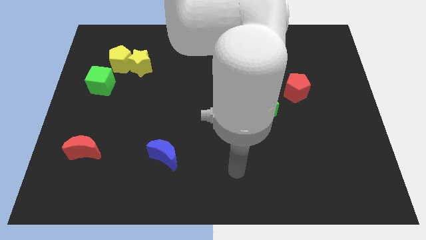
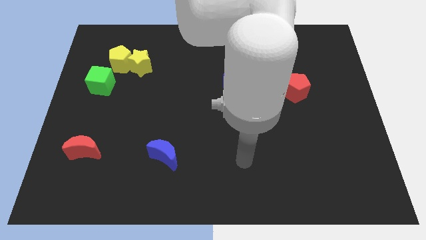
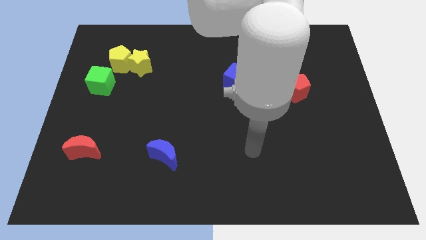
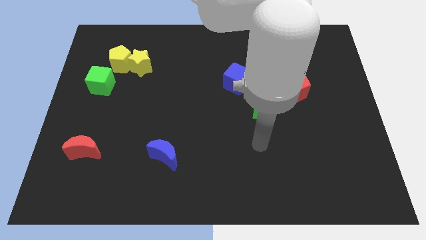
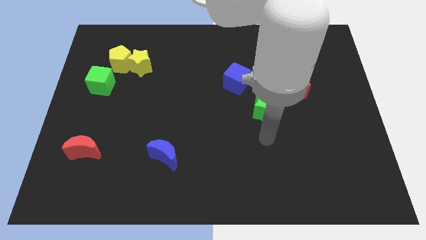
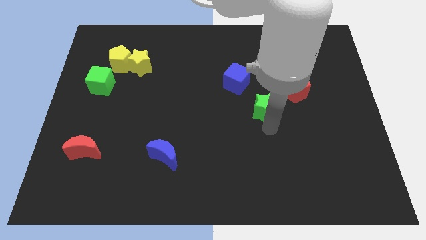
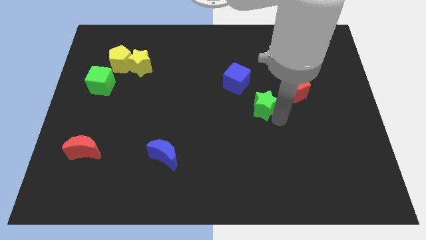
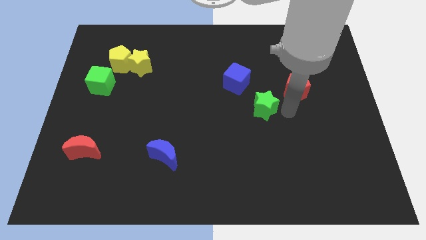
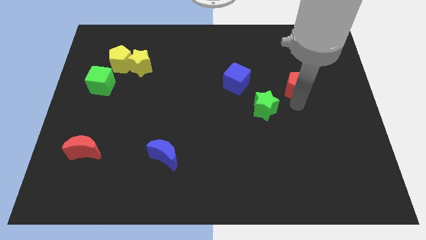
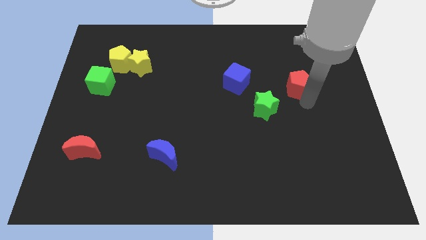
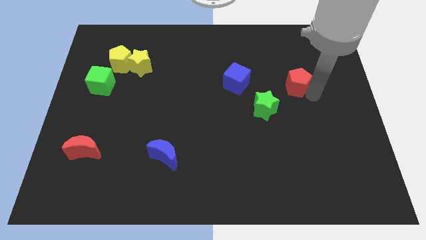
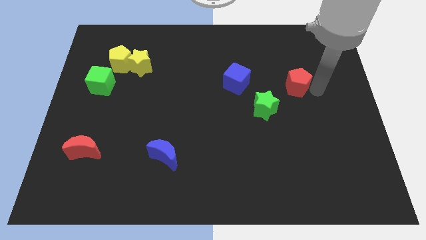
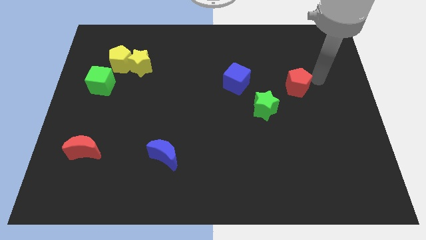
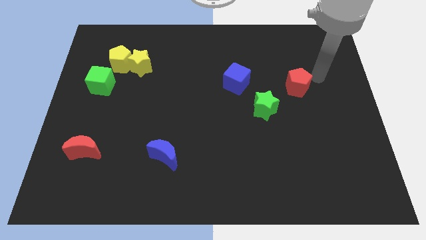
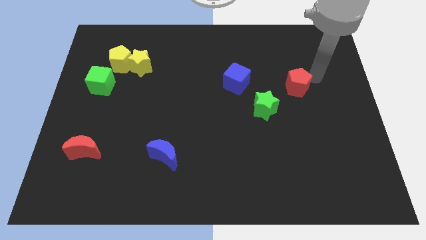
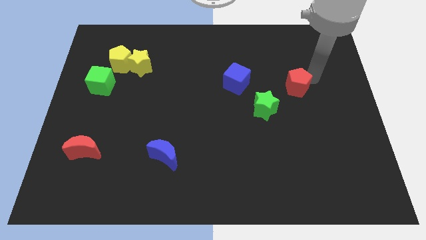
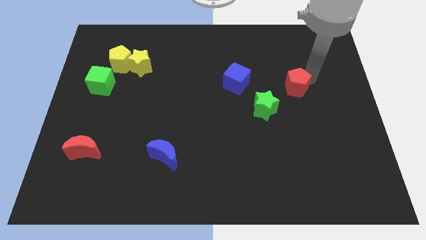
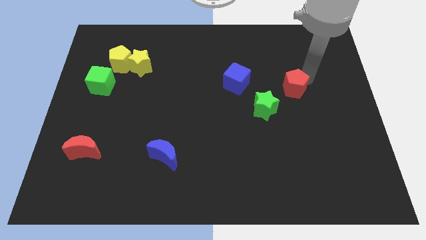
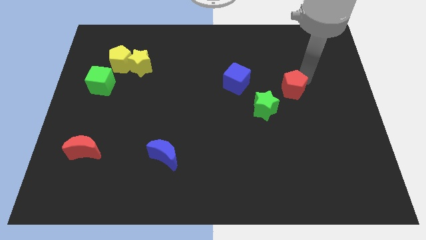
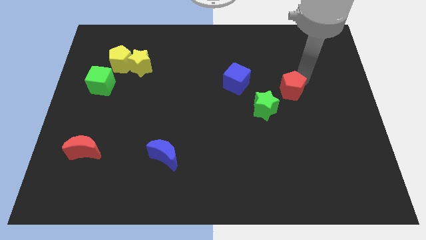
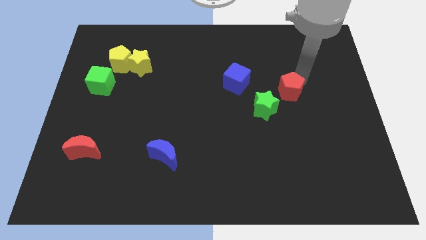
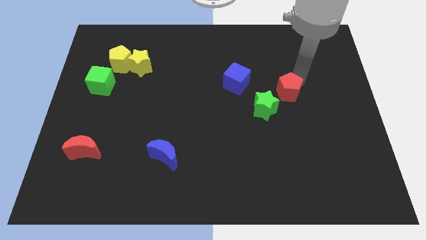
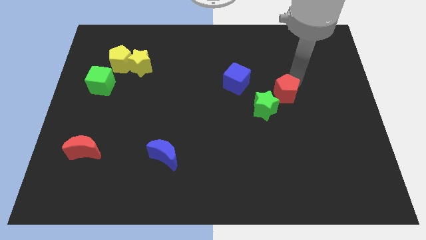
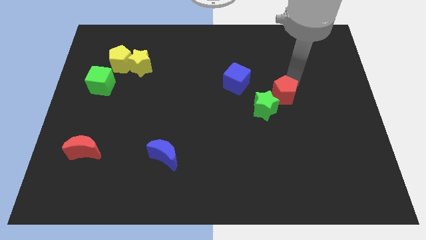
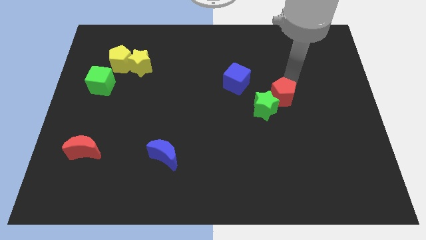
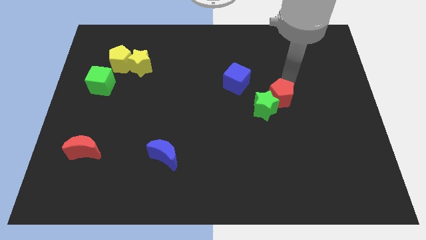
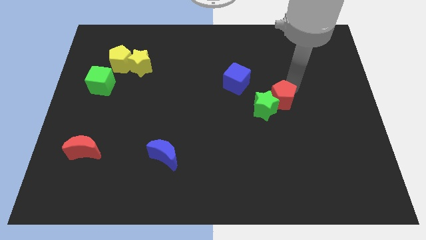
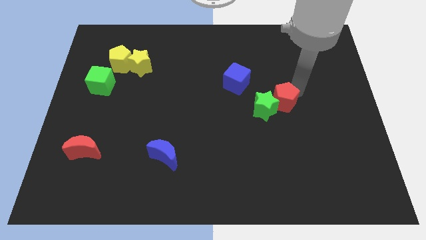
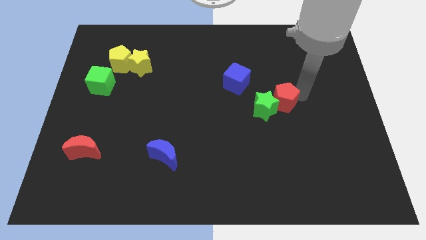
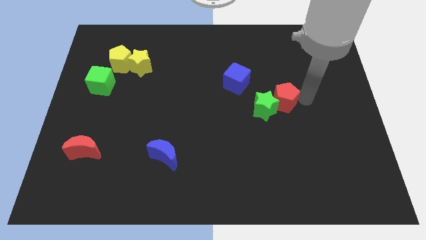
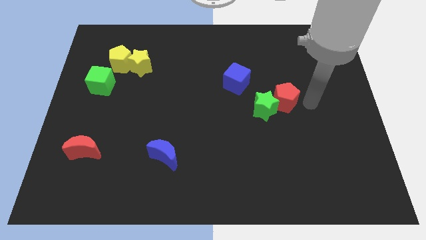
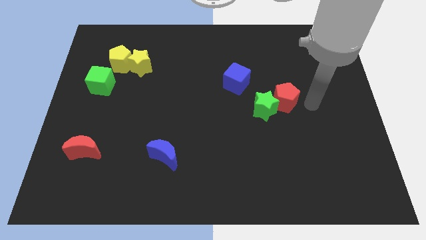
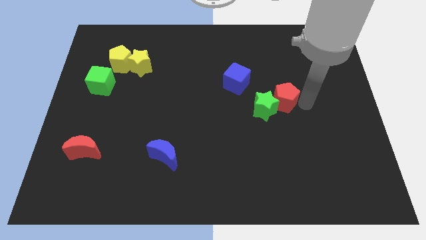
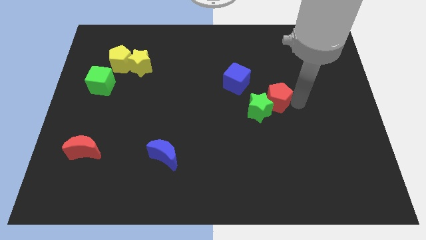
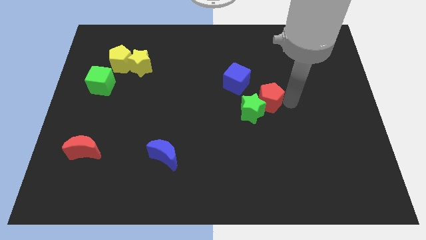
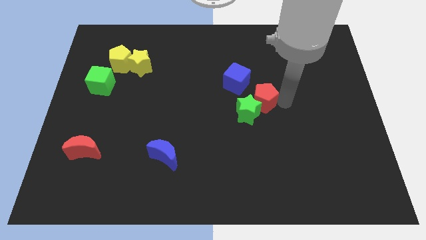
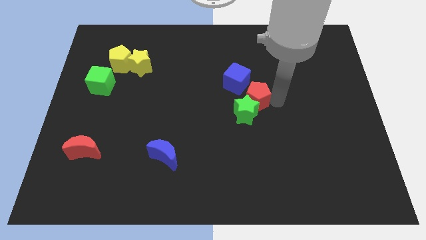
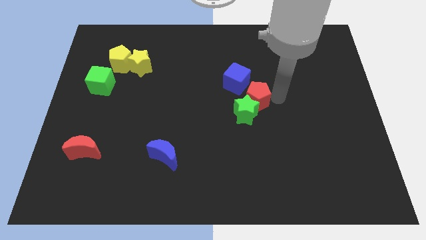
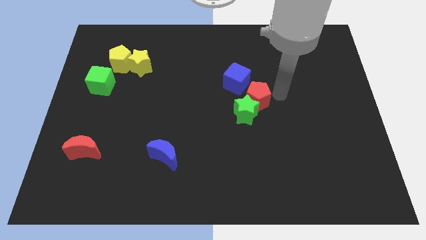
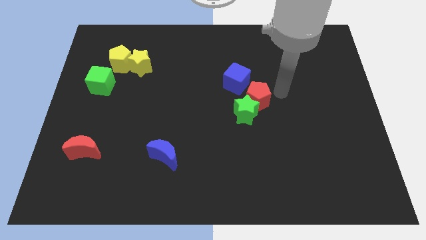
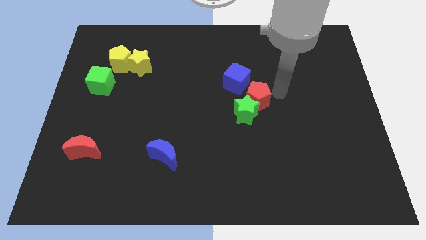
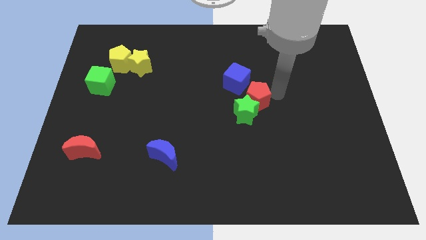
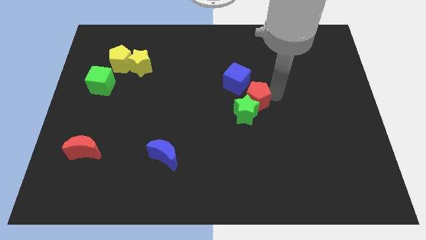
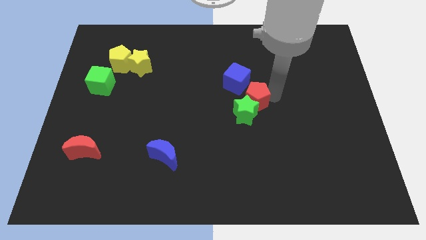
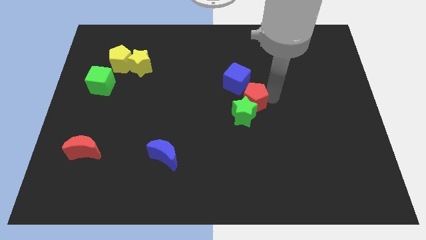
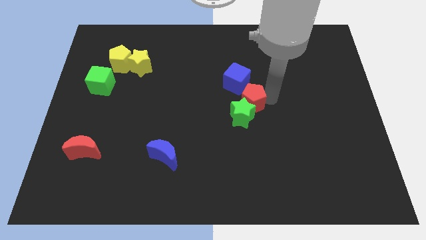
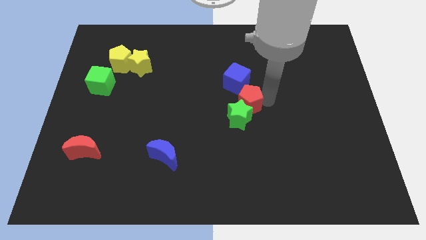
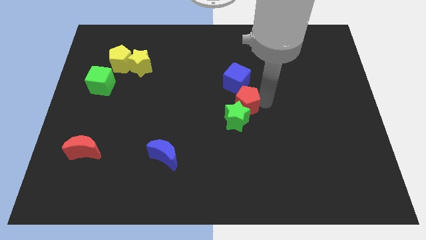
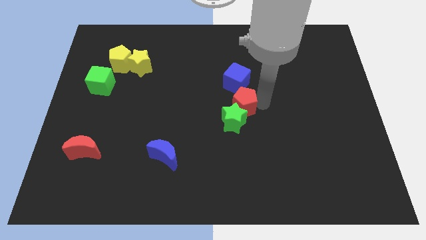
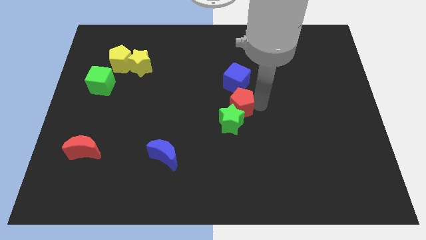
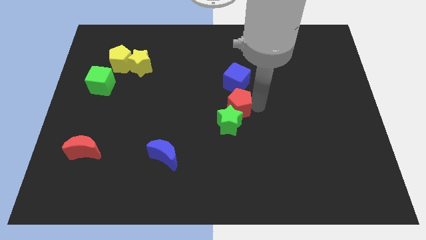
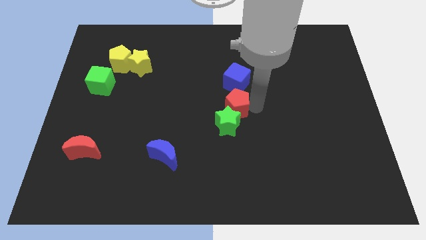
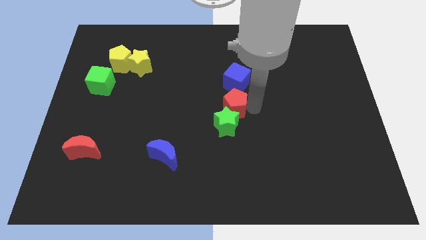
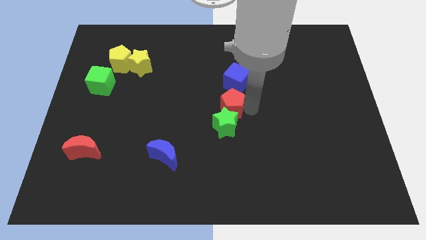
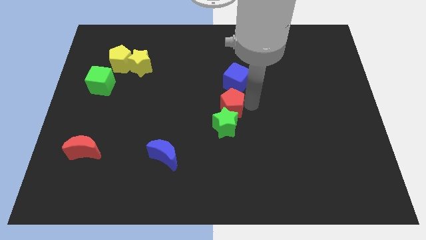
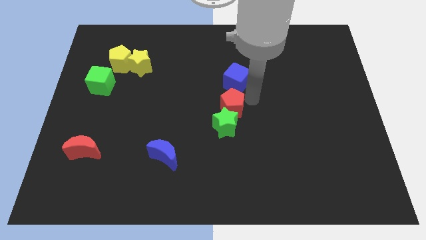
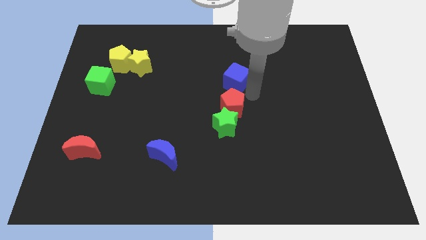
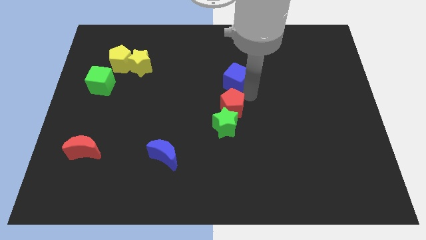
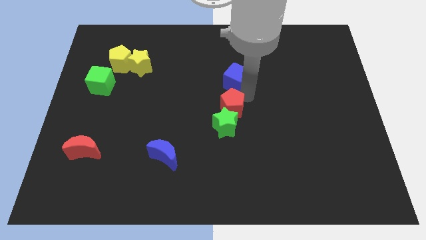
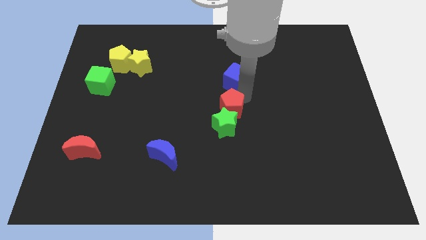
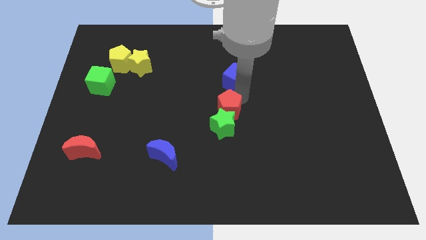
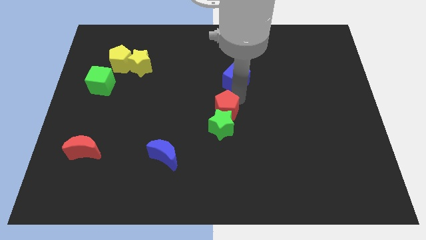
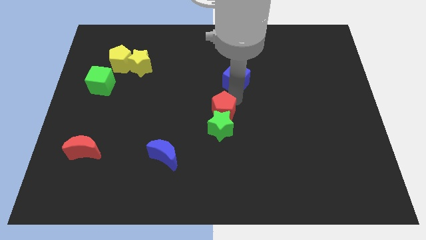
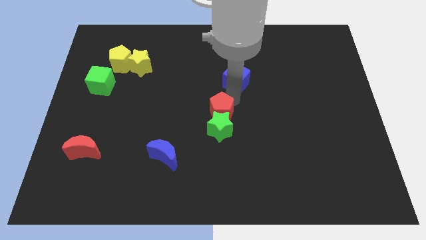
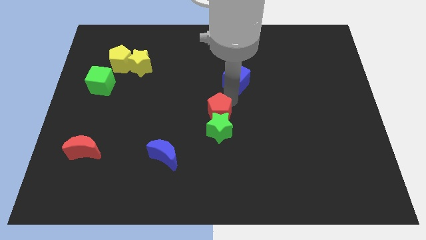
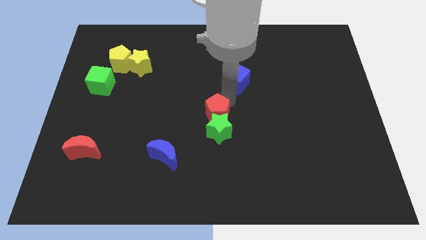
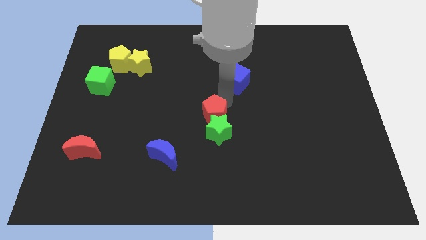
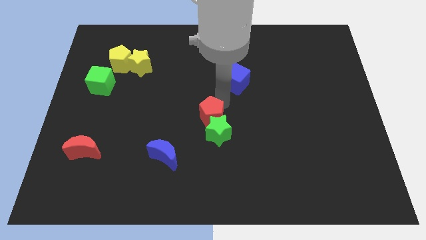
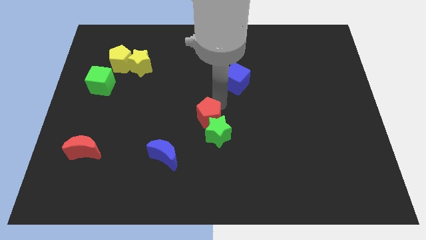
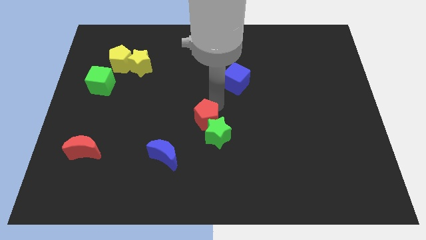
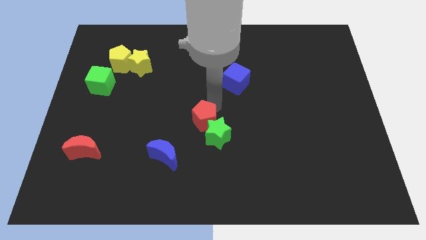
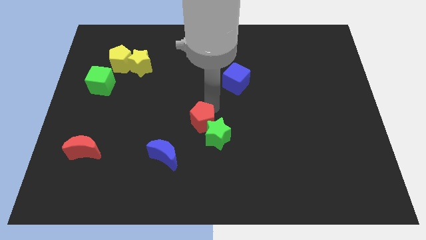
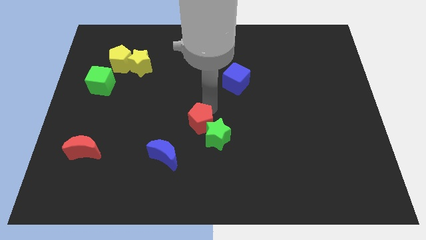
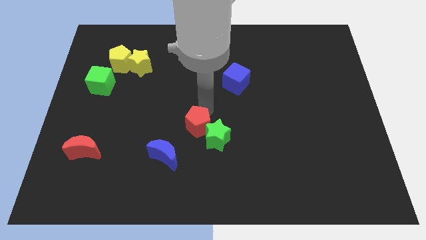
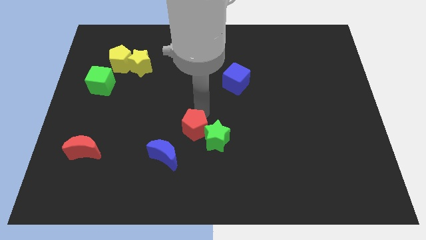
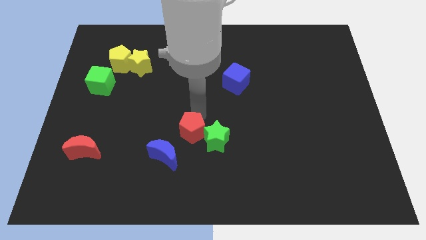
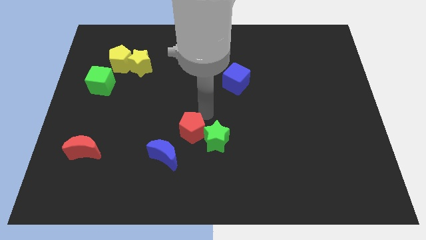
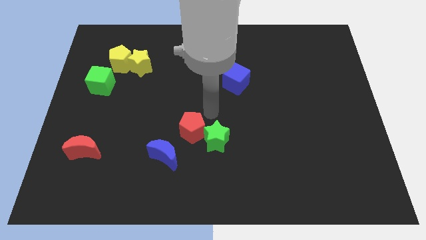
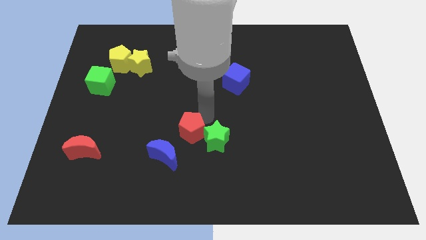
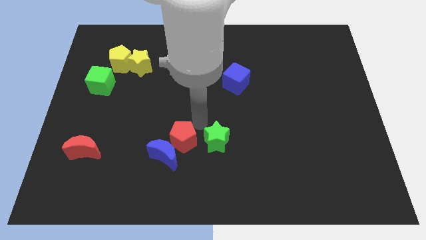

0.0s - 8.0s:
slide the red pentagon to the blue moon
